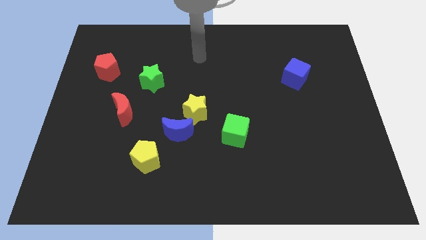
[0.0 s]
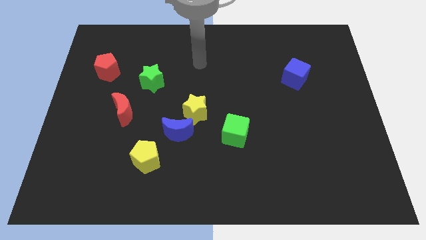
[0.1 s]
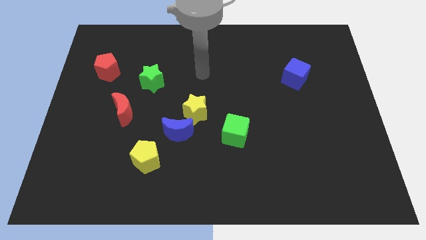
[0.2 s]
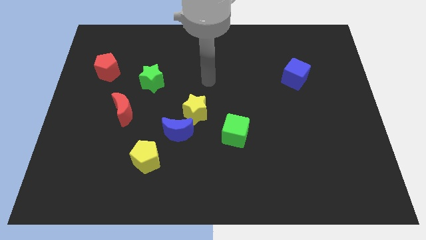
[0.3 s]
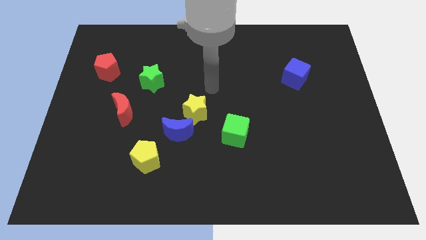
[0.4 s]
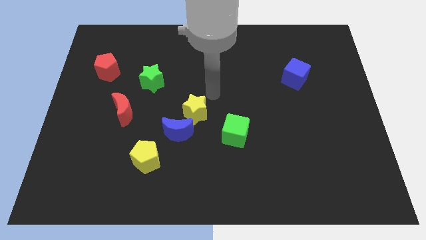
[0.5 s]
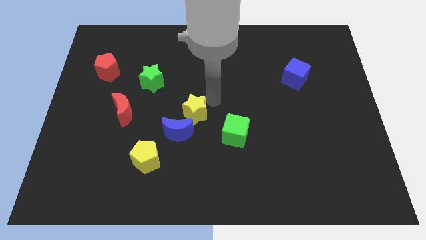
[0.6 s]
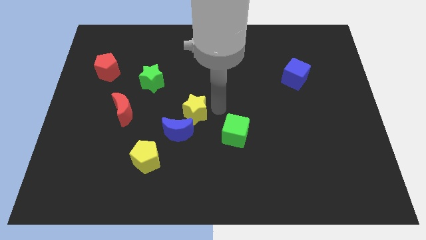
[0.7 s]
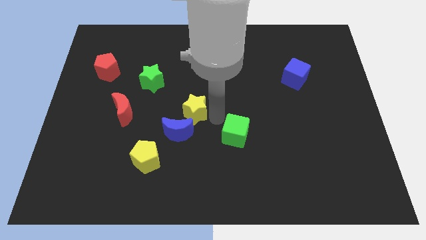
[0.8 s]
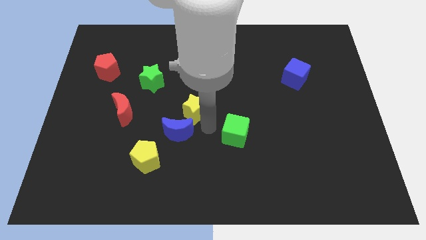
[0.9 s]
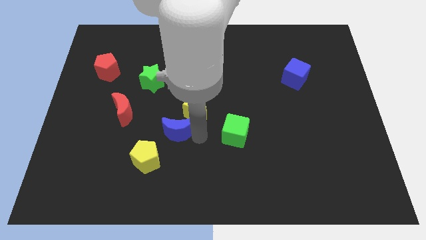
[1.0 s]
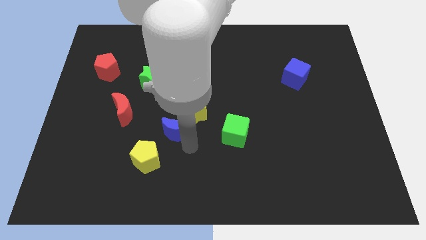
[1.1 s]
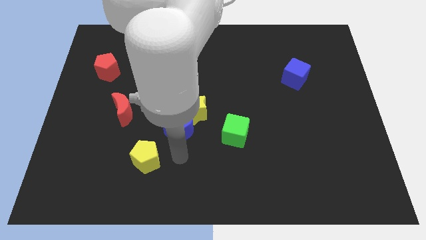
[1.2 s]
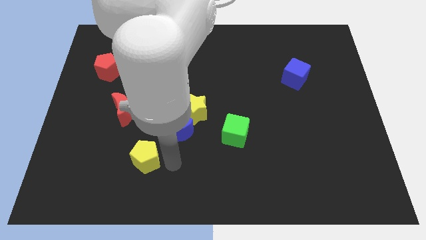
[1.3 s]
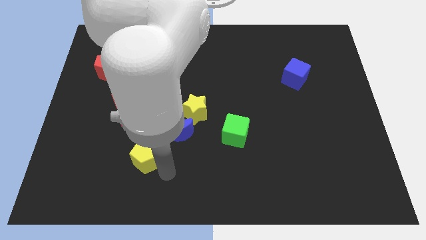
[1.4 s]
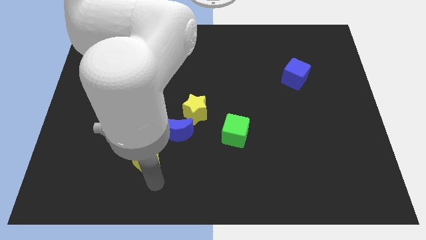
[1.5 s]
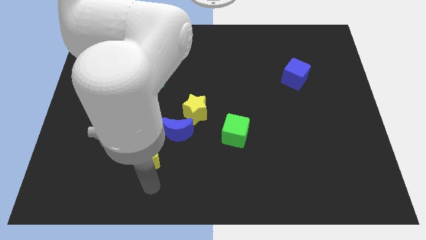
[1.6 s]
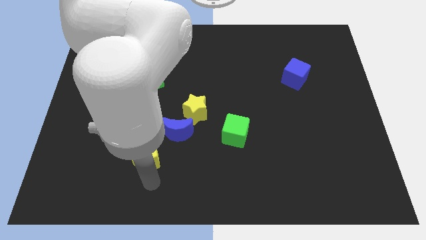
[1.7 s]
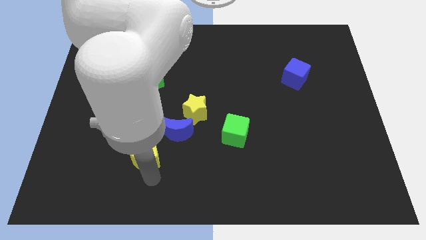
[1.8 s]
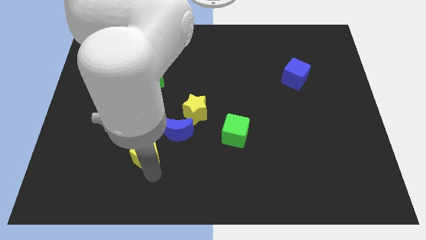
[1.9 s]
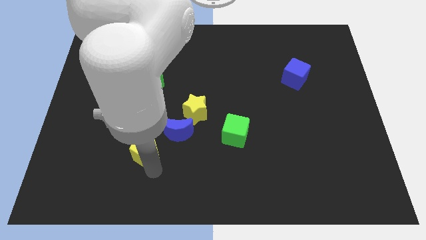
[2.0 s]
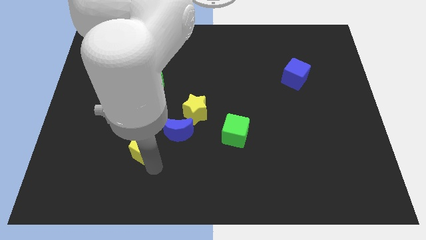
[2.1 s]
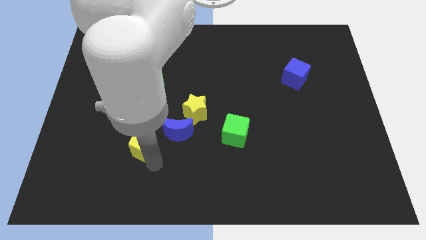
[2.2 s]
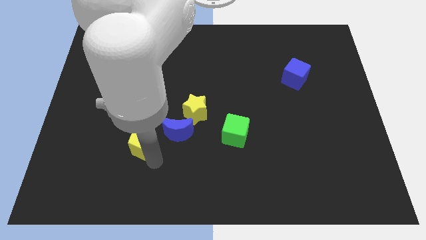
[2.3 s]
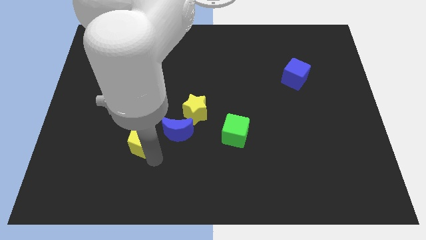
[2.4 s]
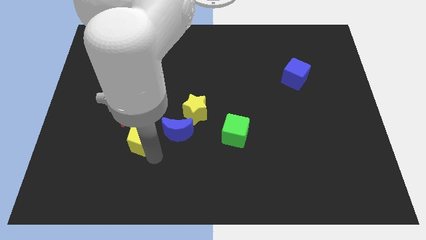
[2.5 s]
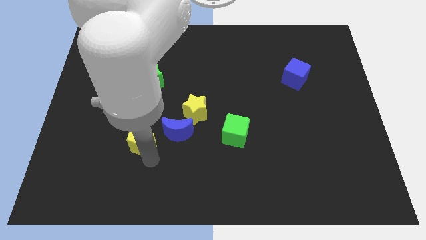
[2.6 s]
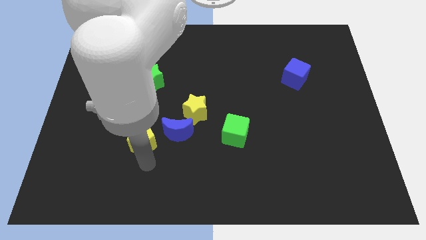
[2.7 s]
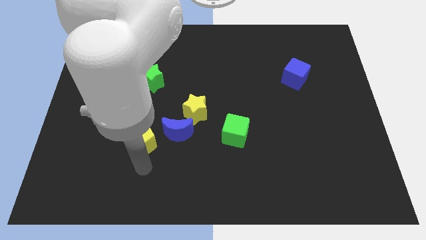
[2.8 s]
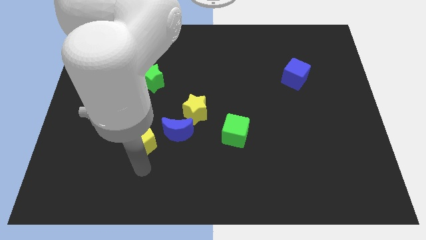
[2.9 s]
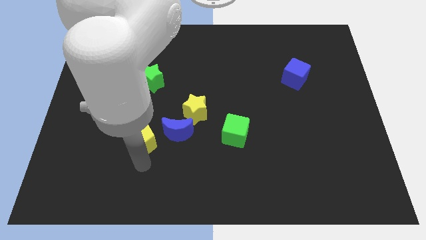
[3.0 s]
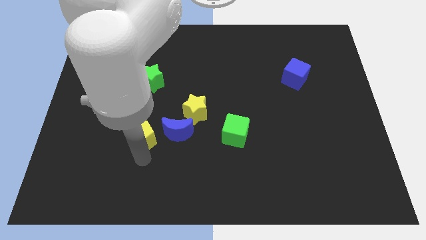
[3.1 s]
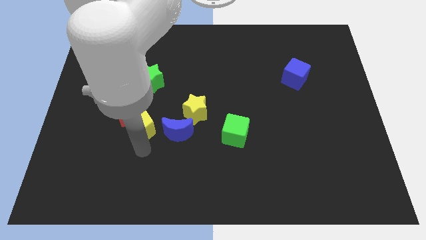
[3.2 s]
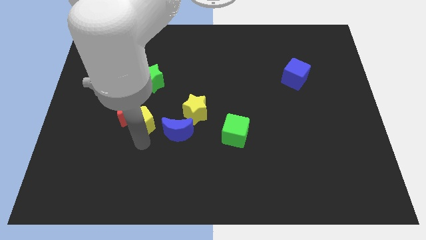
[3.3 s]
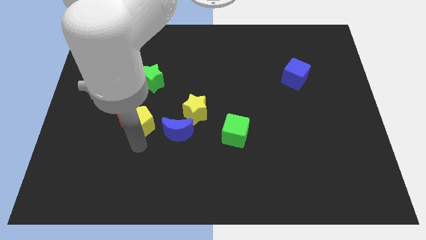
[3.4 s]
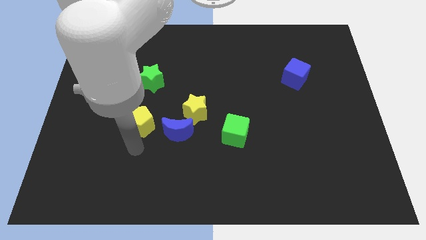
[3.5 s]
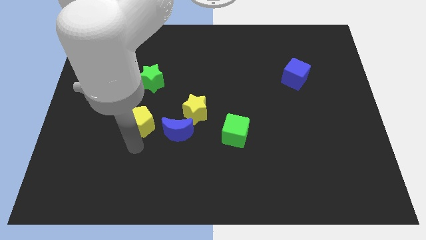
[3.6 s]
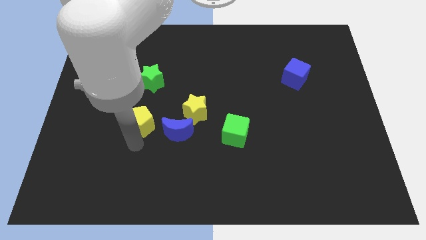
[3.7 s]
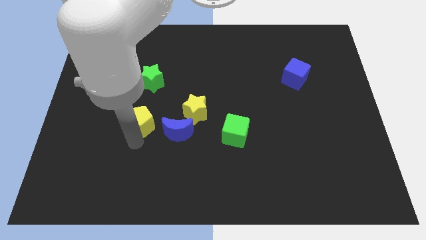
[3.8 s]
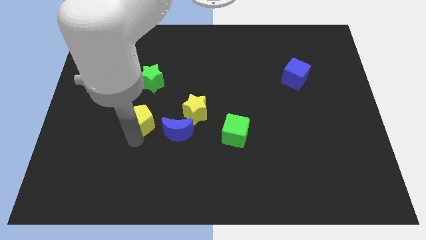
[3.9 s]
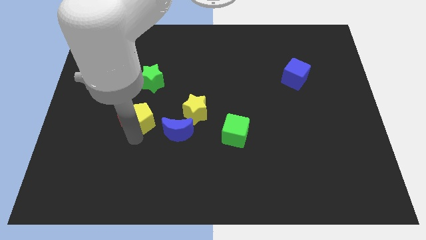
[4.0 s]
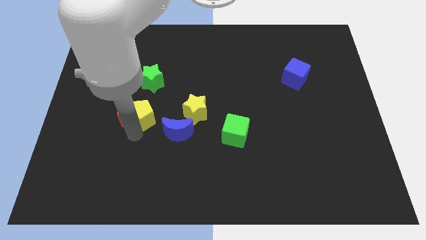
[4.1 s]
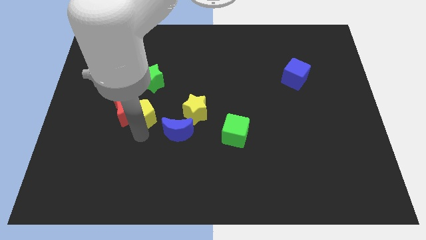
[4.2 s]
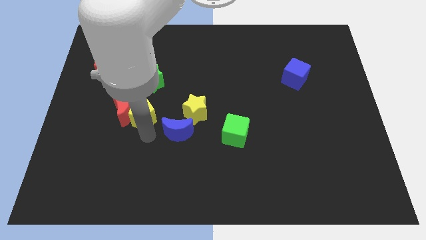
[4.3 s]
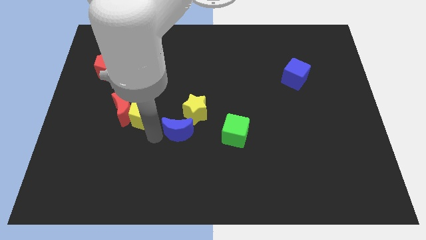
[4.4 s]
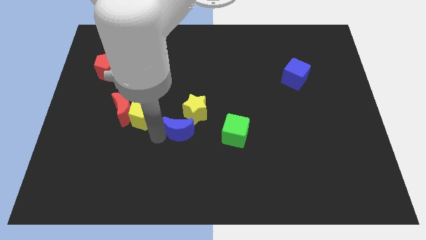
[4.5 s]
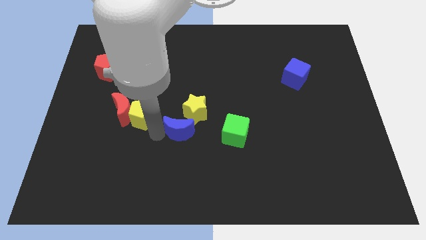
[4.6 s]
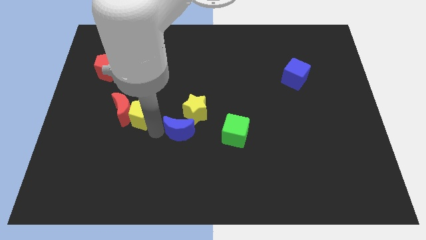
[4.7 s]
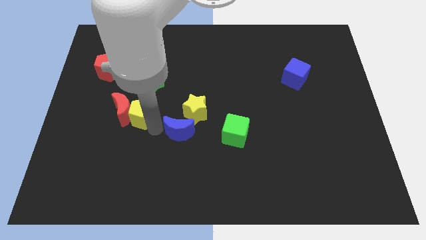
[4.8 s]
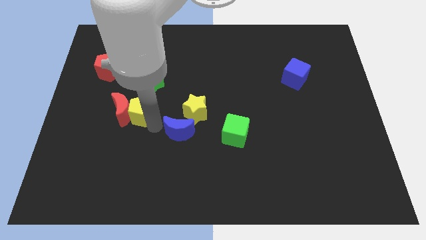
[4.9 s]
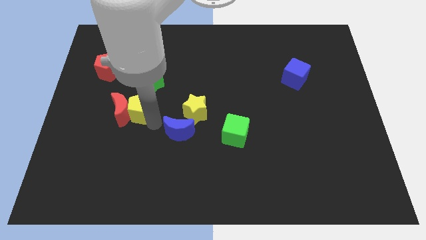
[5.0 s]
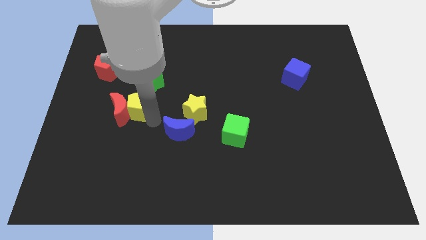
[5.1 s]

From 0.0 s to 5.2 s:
put the yellow pentagon to the bottom left side of the green star

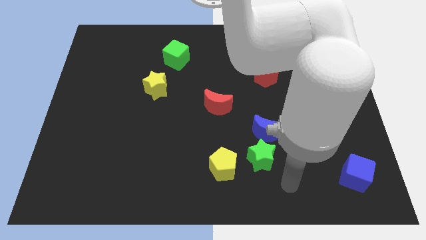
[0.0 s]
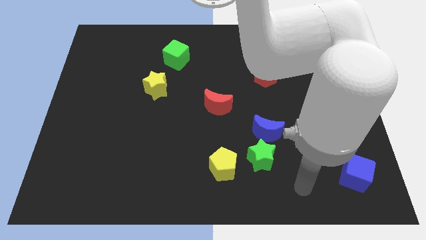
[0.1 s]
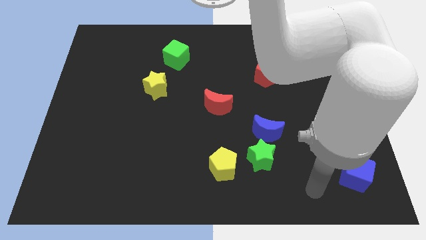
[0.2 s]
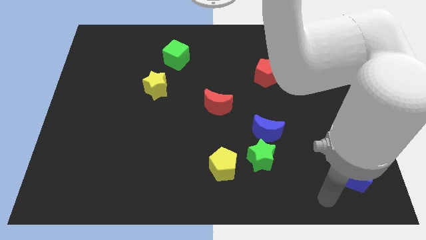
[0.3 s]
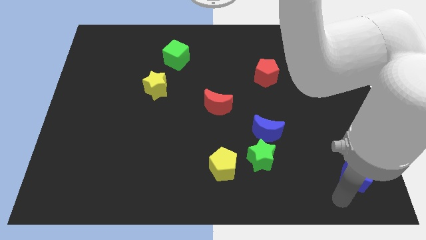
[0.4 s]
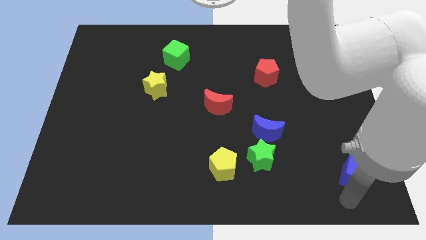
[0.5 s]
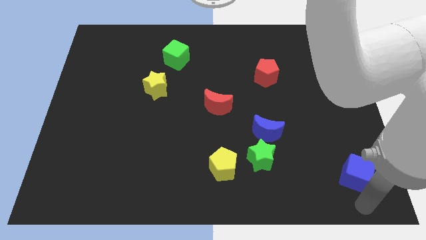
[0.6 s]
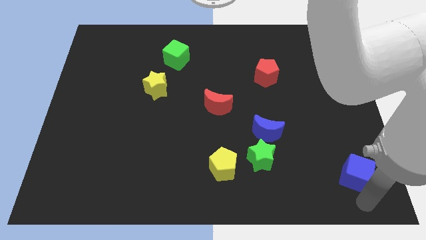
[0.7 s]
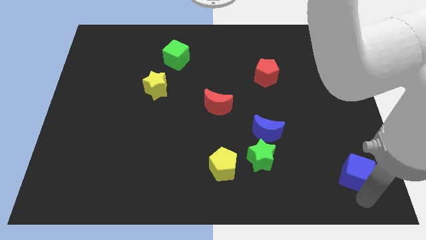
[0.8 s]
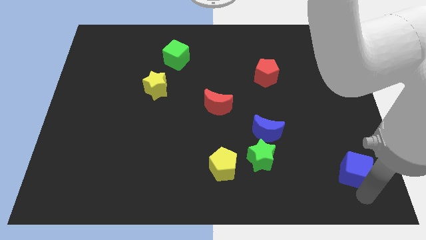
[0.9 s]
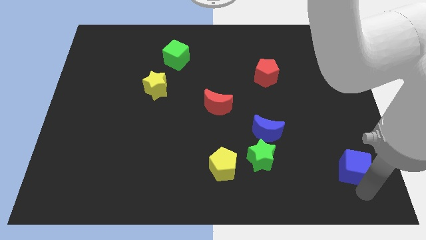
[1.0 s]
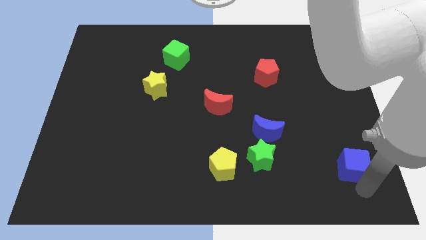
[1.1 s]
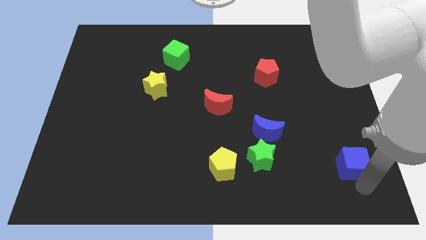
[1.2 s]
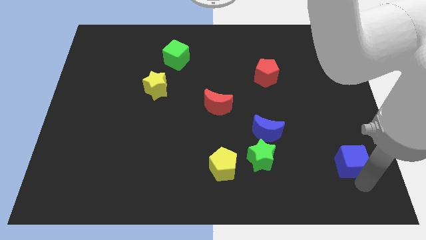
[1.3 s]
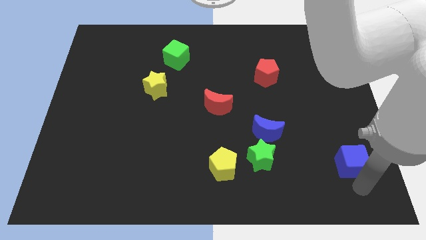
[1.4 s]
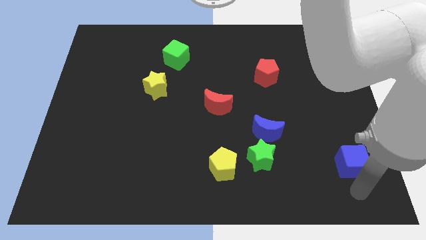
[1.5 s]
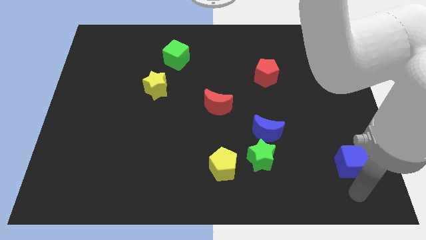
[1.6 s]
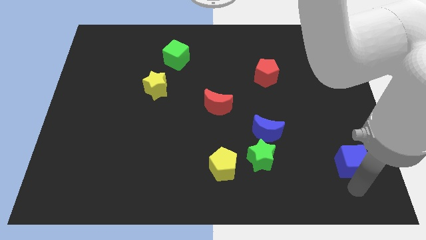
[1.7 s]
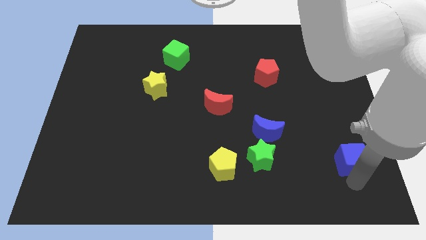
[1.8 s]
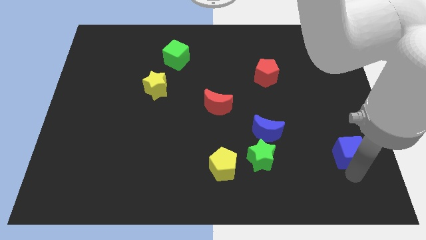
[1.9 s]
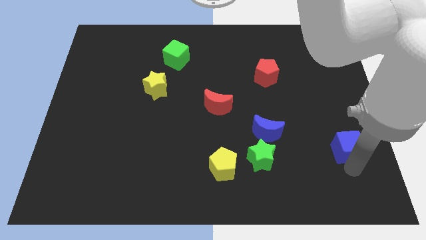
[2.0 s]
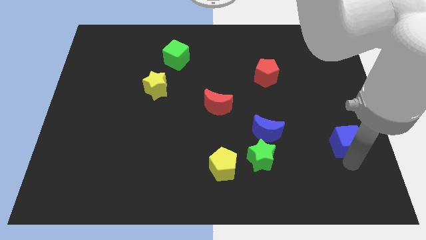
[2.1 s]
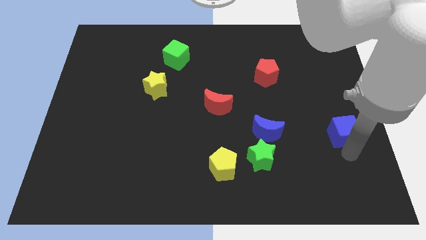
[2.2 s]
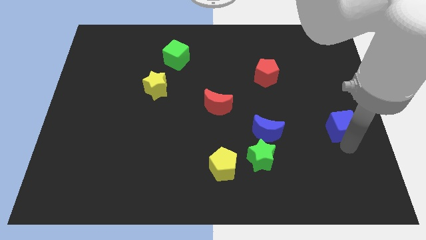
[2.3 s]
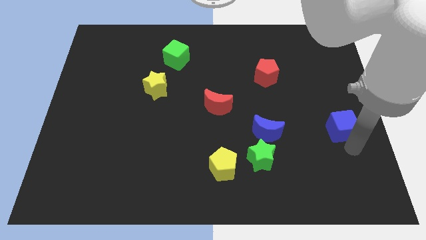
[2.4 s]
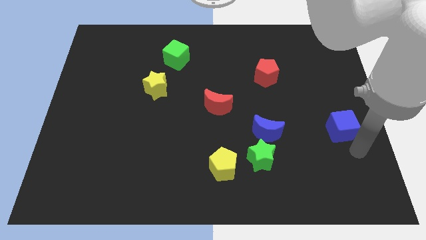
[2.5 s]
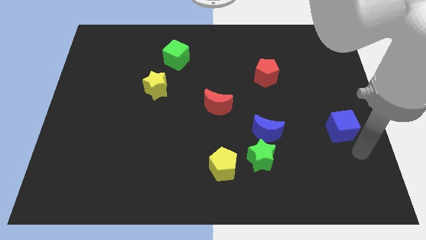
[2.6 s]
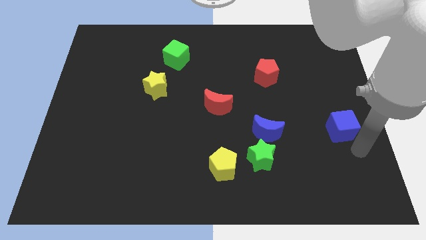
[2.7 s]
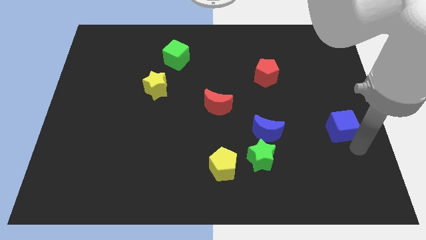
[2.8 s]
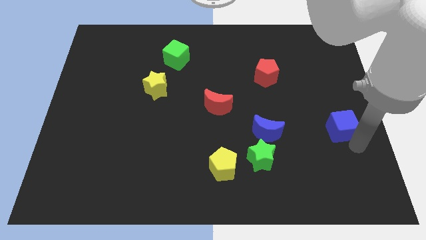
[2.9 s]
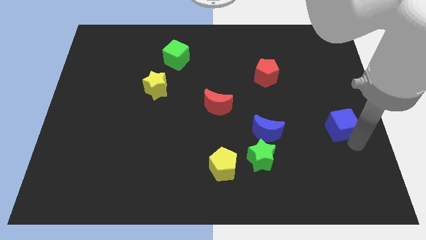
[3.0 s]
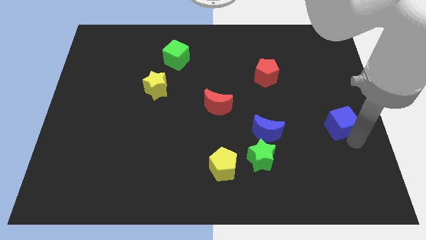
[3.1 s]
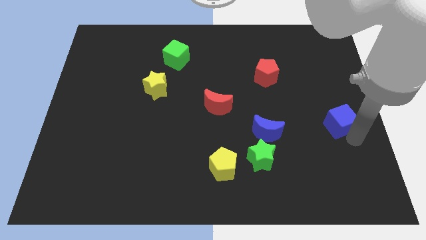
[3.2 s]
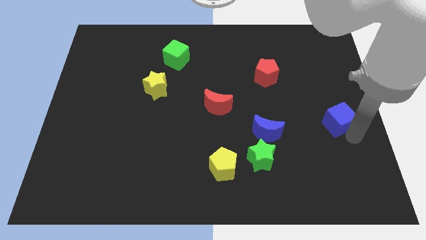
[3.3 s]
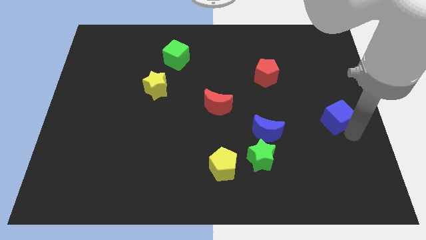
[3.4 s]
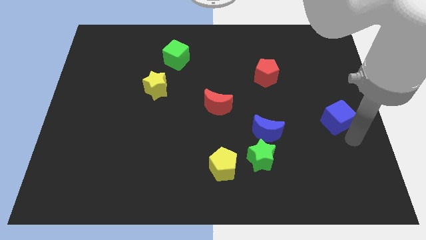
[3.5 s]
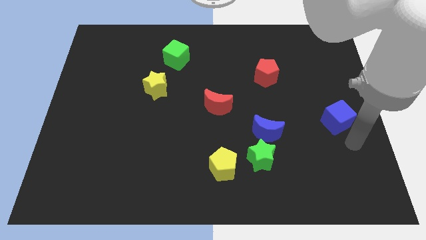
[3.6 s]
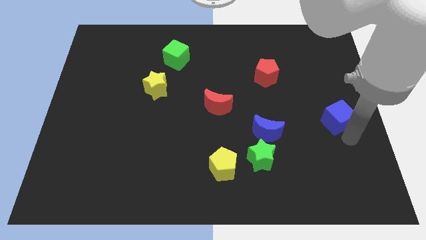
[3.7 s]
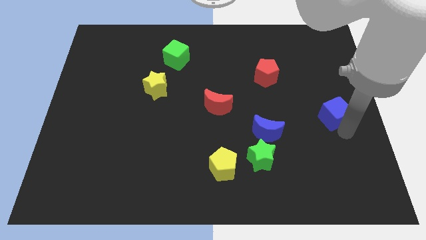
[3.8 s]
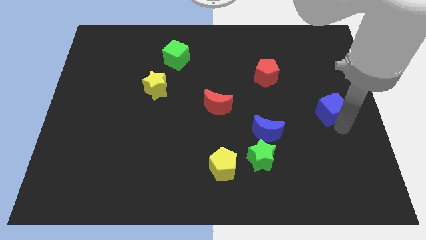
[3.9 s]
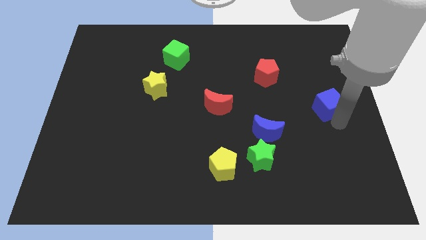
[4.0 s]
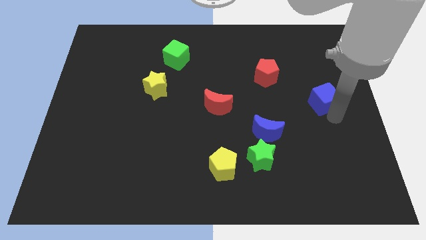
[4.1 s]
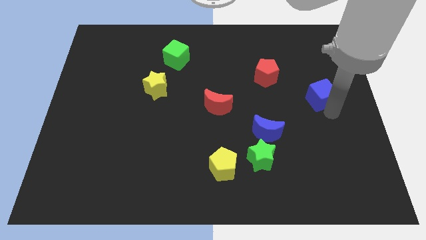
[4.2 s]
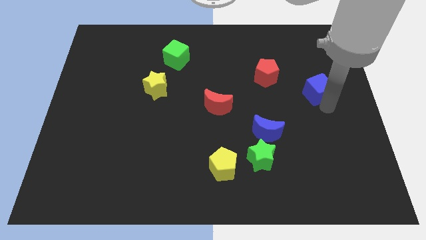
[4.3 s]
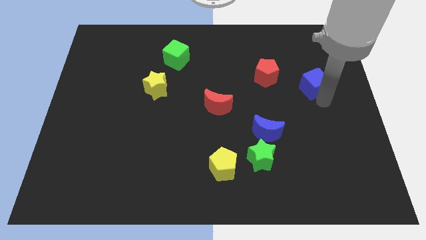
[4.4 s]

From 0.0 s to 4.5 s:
move the blue cube just right of the red pentagon
